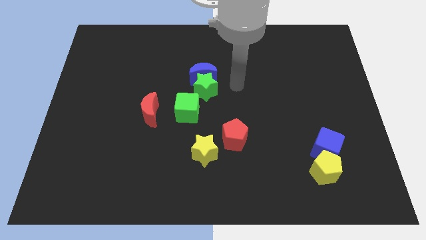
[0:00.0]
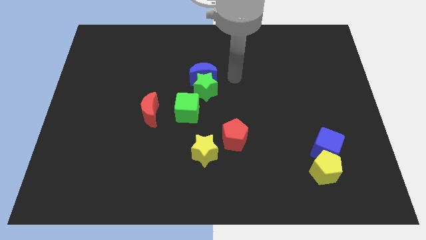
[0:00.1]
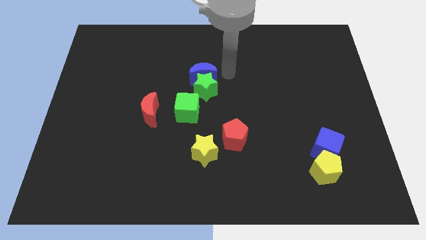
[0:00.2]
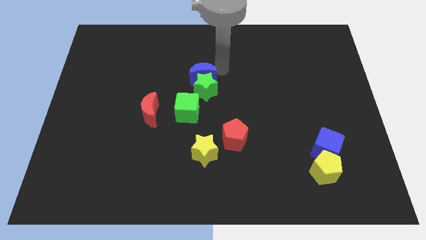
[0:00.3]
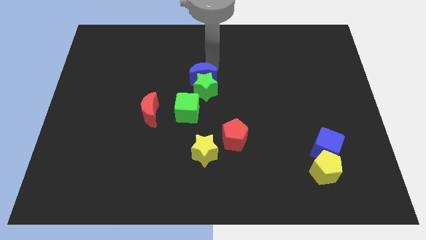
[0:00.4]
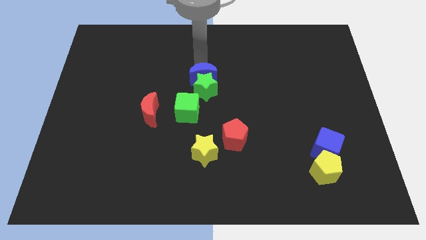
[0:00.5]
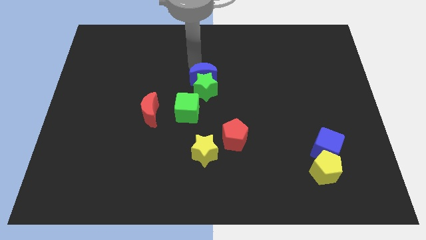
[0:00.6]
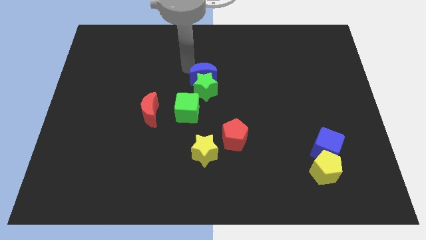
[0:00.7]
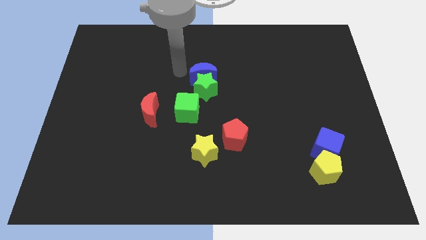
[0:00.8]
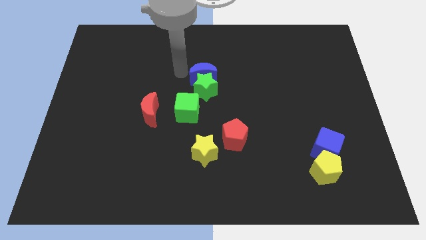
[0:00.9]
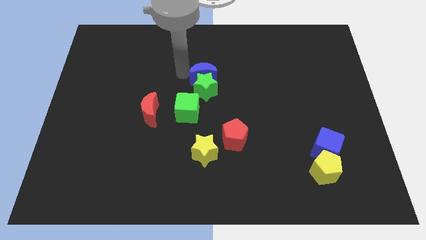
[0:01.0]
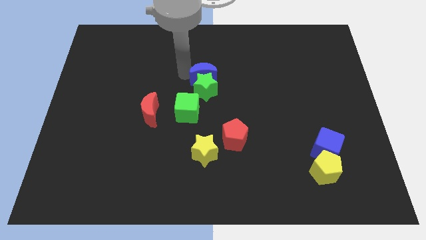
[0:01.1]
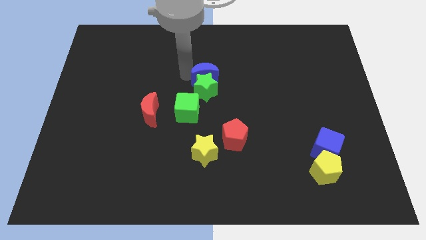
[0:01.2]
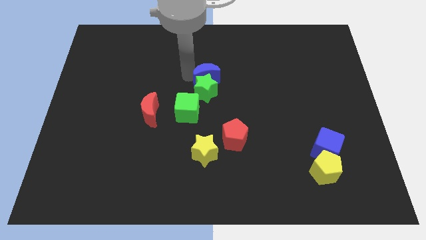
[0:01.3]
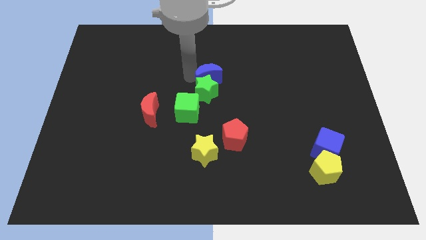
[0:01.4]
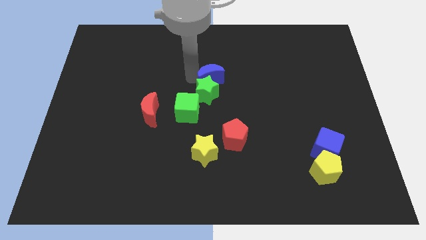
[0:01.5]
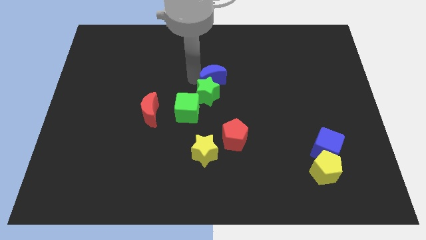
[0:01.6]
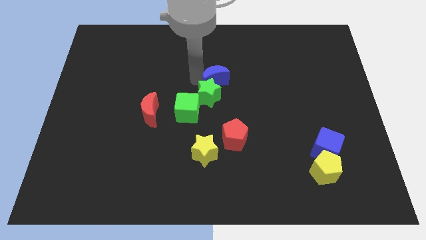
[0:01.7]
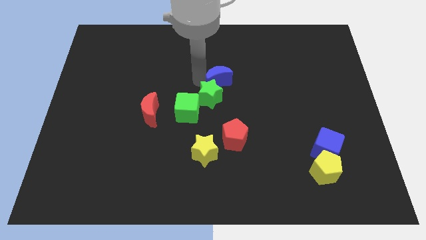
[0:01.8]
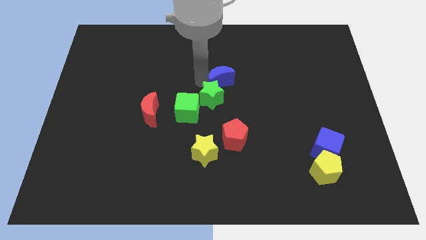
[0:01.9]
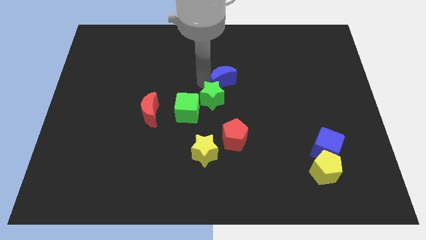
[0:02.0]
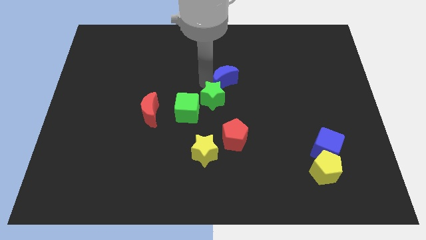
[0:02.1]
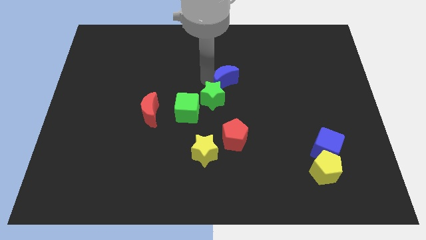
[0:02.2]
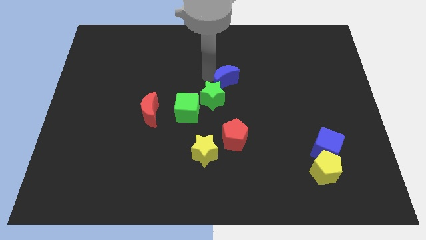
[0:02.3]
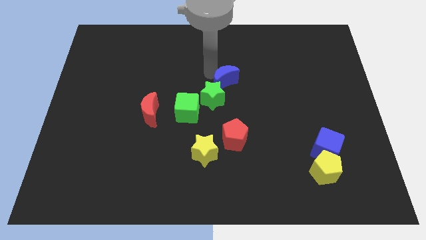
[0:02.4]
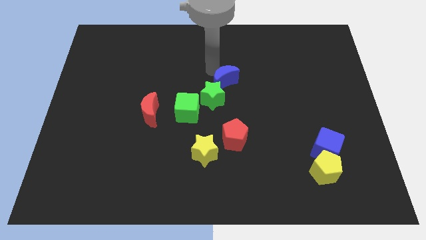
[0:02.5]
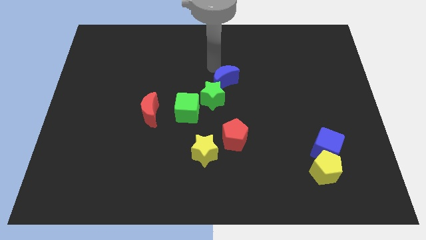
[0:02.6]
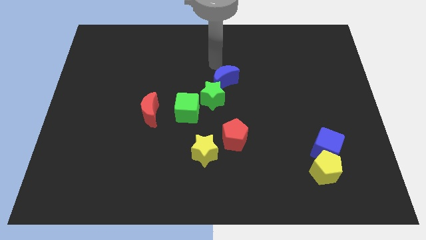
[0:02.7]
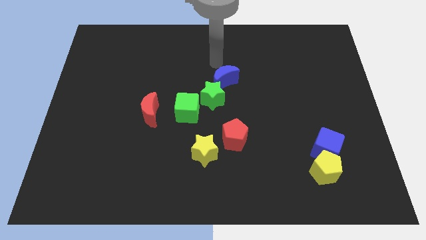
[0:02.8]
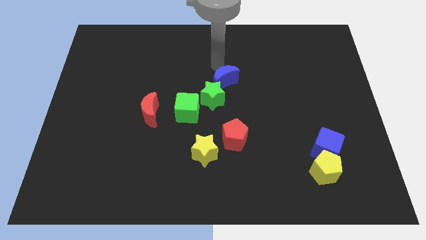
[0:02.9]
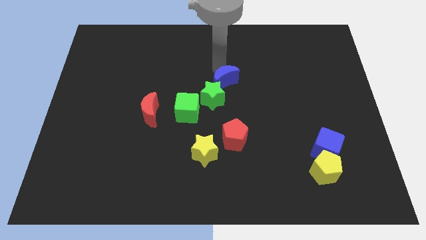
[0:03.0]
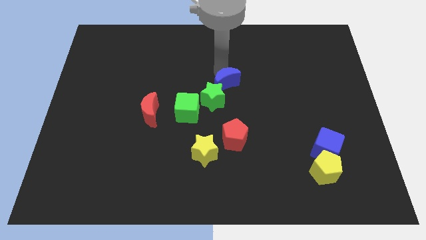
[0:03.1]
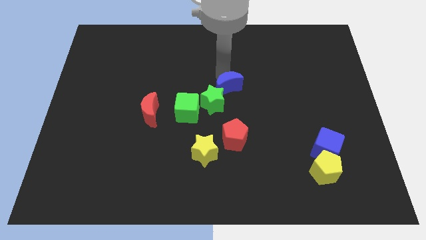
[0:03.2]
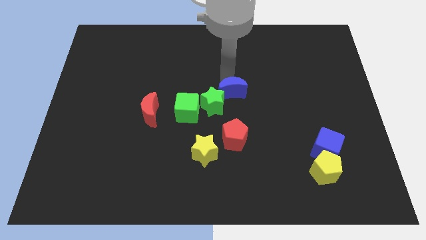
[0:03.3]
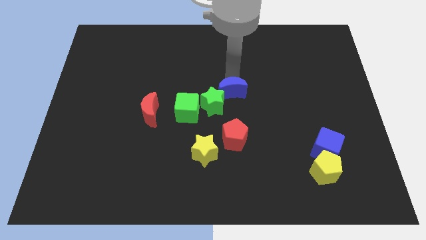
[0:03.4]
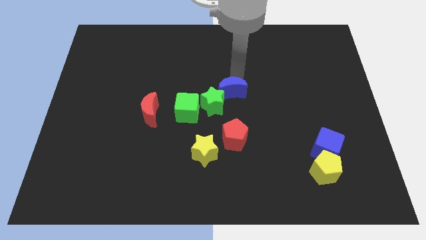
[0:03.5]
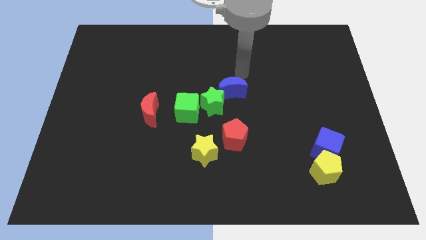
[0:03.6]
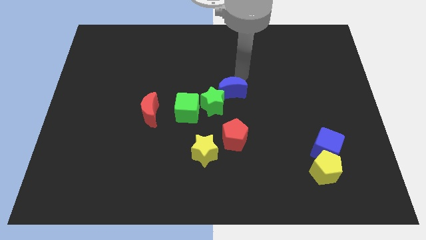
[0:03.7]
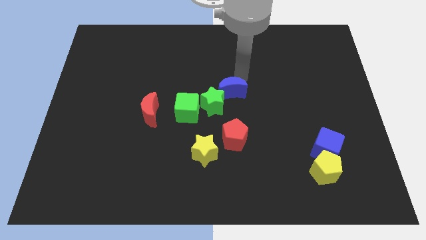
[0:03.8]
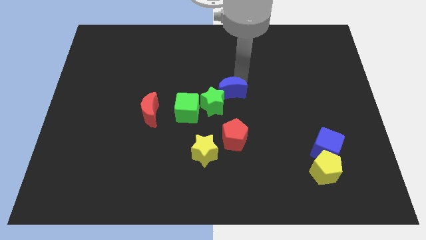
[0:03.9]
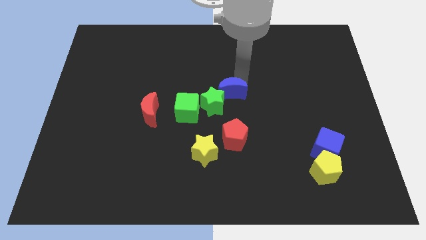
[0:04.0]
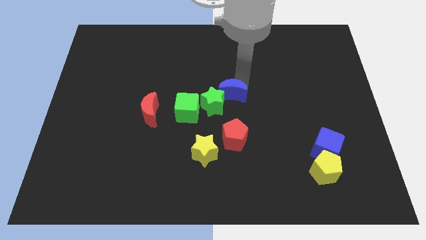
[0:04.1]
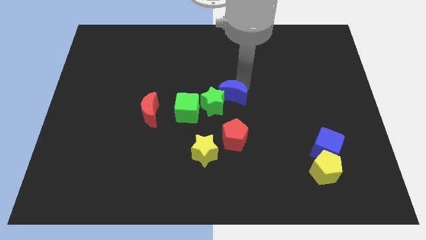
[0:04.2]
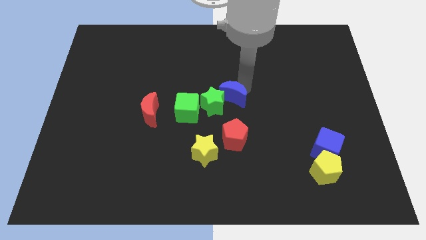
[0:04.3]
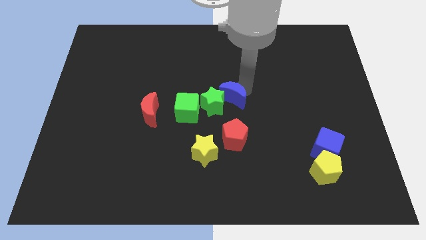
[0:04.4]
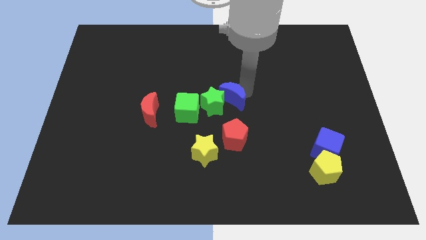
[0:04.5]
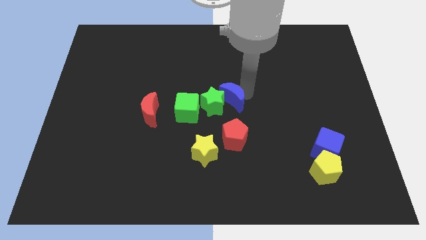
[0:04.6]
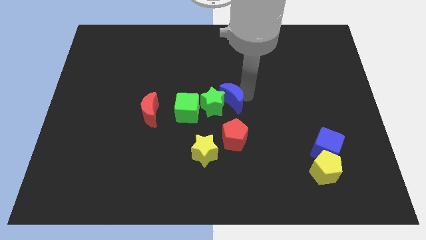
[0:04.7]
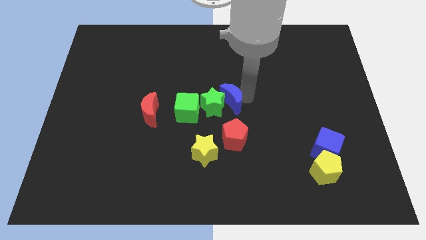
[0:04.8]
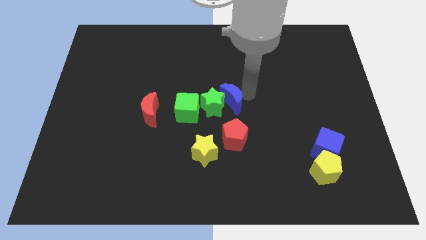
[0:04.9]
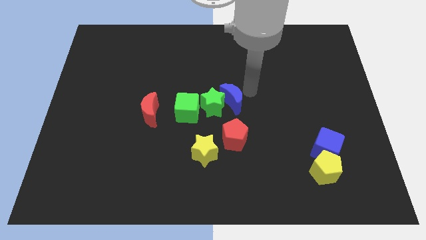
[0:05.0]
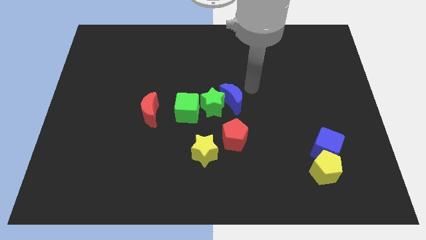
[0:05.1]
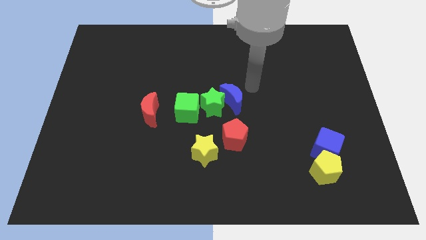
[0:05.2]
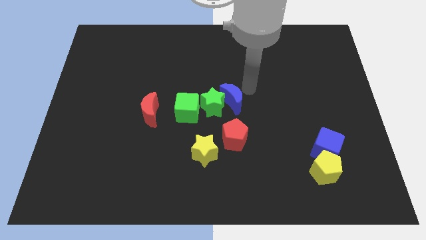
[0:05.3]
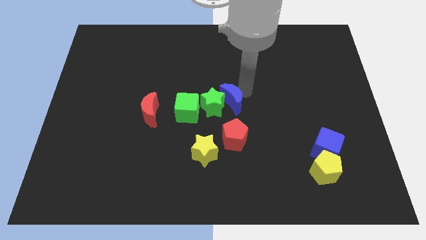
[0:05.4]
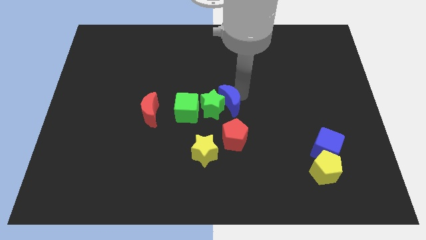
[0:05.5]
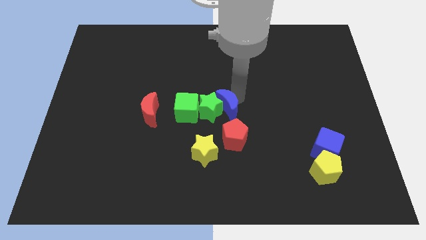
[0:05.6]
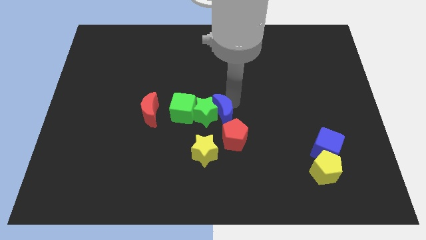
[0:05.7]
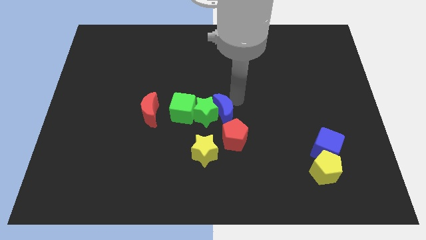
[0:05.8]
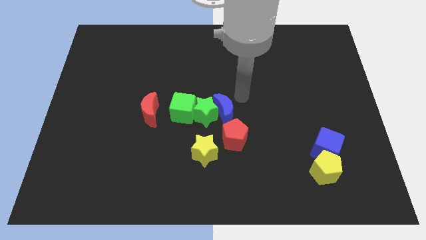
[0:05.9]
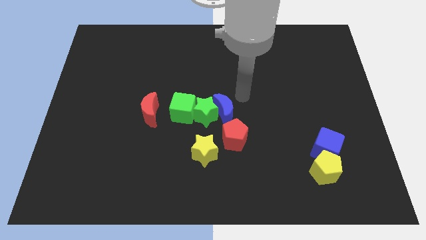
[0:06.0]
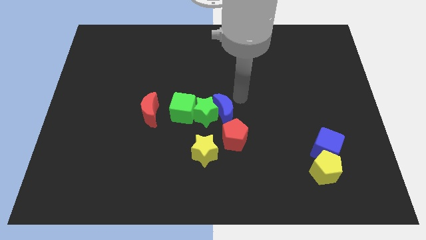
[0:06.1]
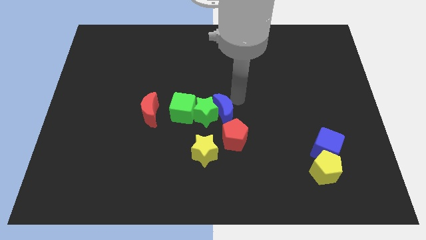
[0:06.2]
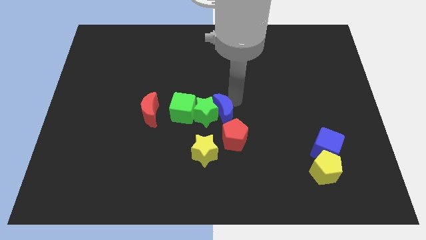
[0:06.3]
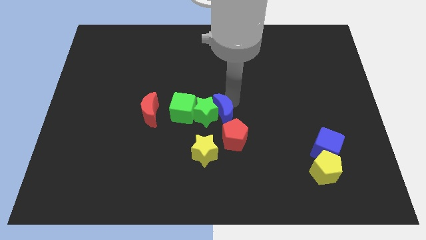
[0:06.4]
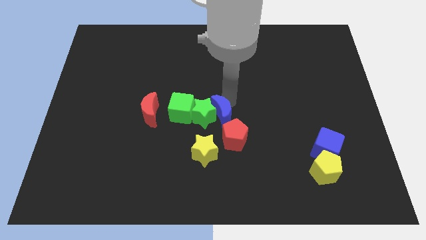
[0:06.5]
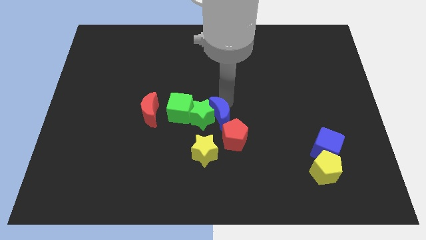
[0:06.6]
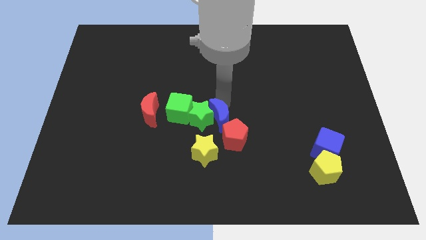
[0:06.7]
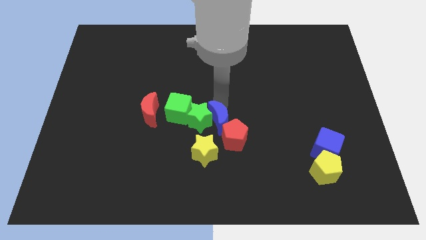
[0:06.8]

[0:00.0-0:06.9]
move the blue moon to the bottom right side of the green cube
